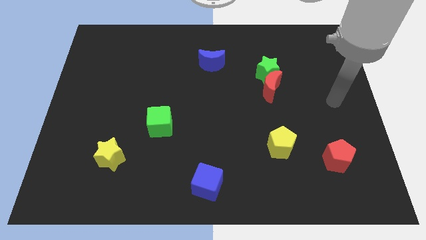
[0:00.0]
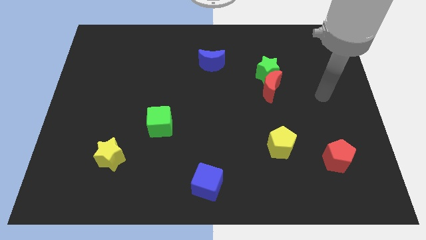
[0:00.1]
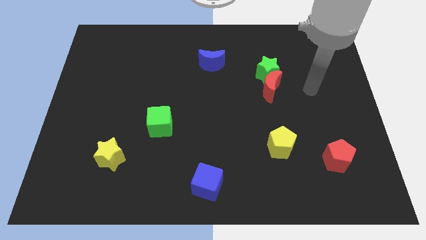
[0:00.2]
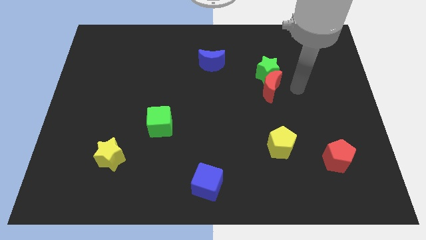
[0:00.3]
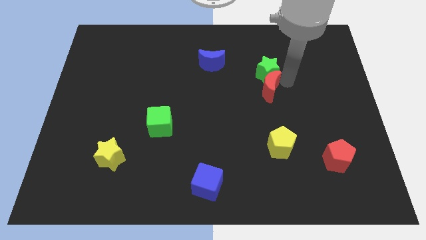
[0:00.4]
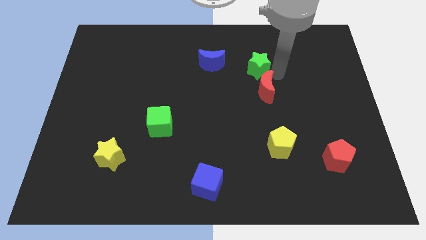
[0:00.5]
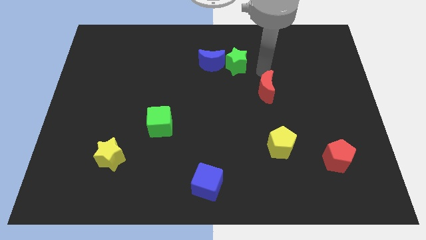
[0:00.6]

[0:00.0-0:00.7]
move the red moon away from the green star

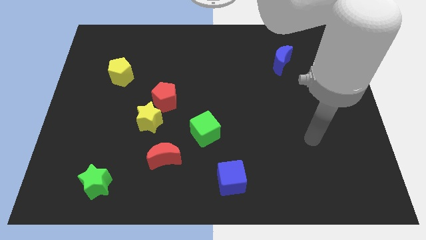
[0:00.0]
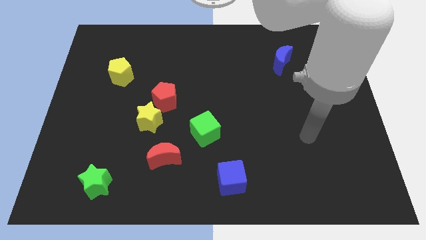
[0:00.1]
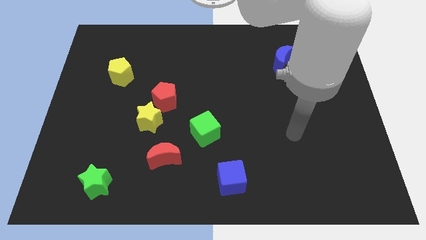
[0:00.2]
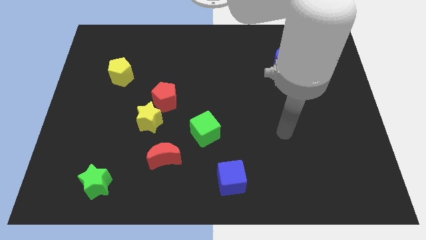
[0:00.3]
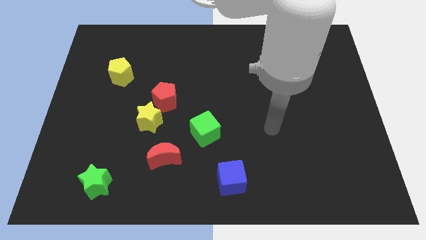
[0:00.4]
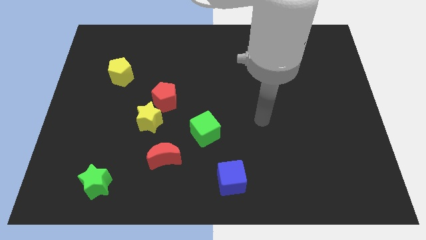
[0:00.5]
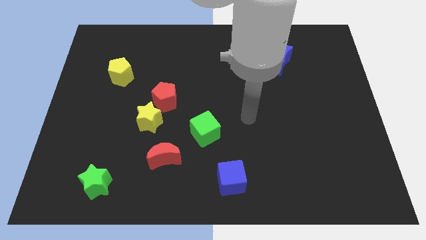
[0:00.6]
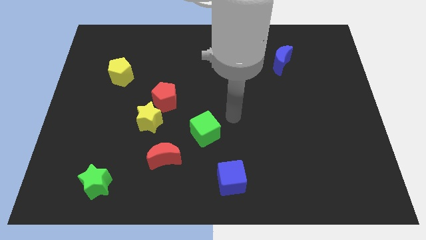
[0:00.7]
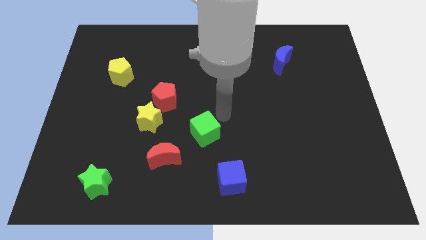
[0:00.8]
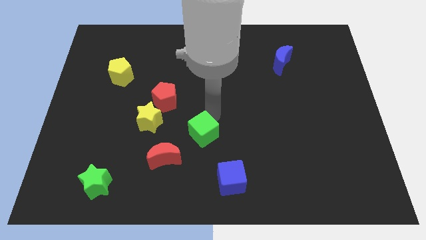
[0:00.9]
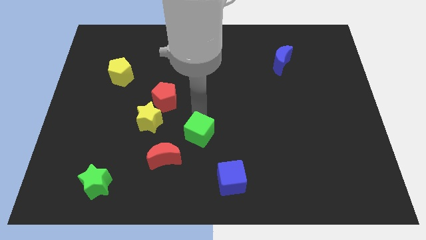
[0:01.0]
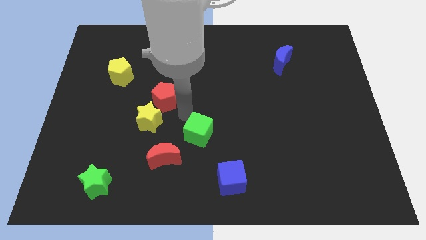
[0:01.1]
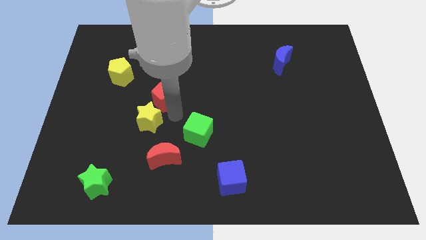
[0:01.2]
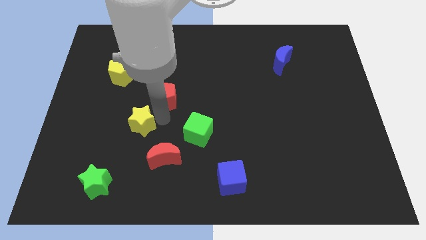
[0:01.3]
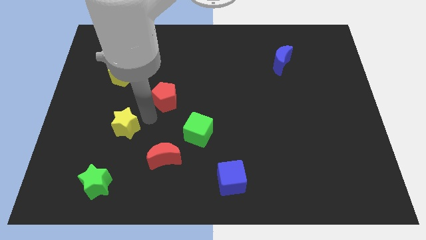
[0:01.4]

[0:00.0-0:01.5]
move the red pentagon away from the yellow star

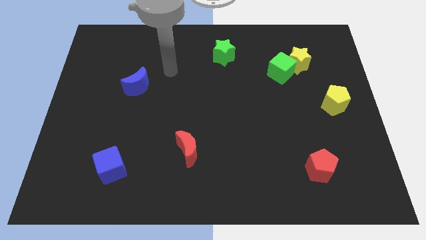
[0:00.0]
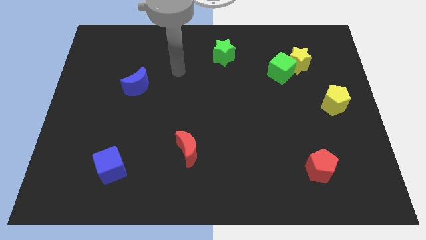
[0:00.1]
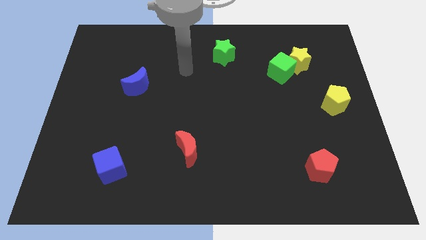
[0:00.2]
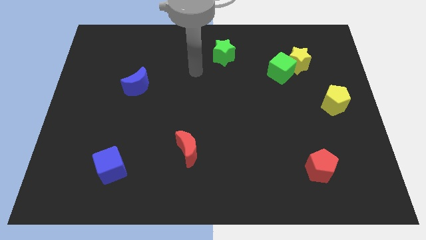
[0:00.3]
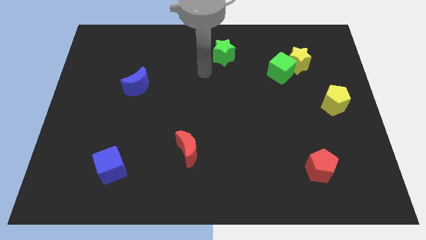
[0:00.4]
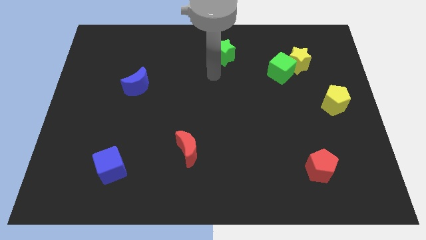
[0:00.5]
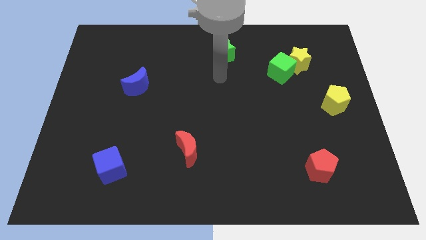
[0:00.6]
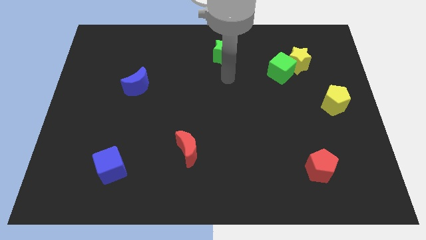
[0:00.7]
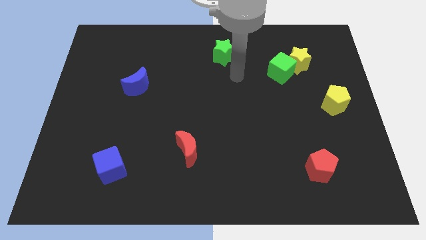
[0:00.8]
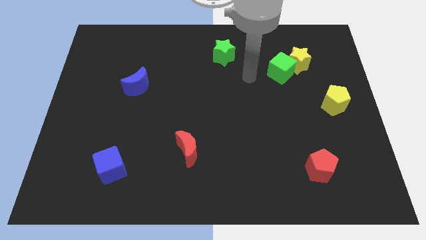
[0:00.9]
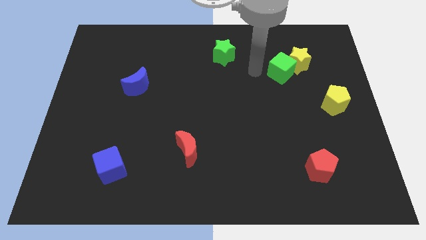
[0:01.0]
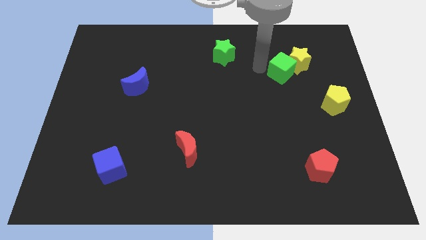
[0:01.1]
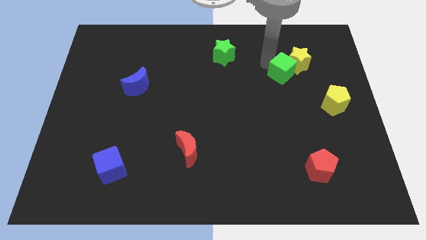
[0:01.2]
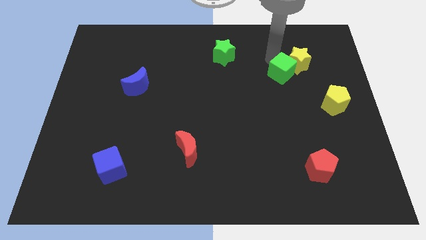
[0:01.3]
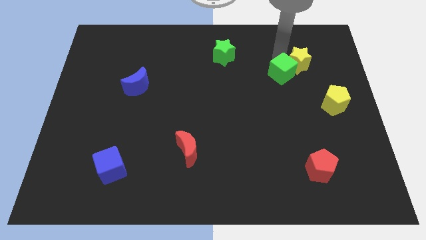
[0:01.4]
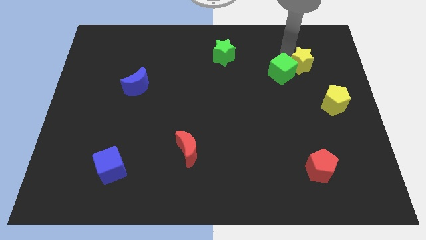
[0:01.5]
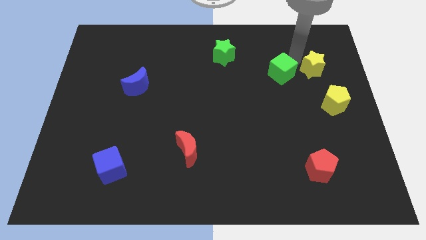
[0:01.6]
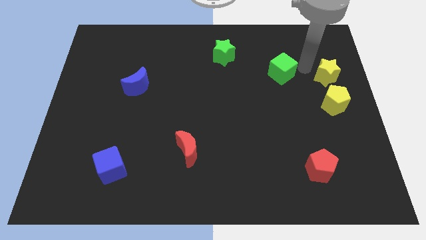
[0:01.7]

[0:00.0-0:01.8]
move the green cube away from the yellow star

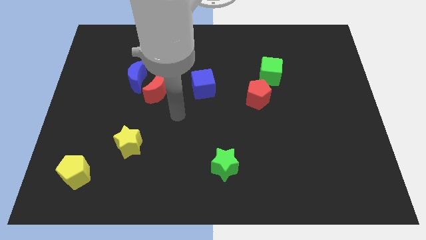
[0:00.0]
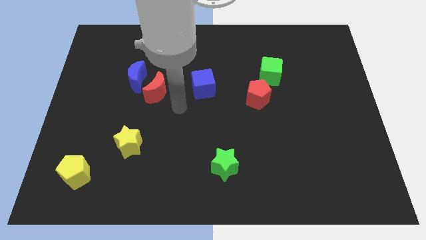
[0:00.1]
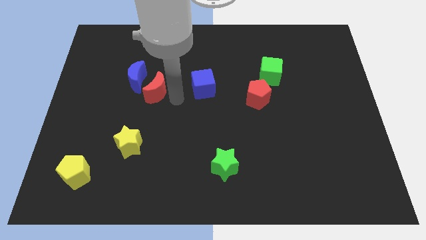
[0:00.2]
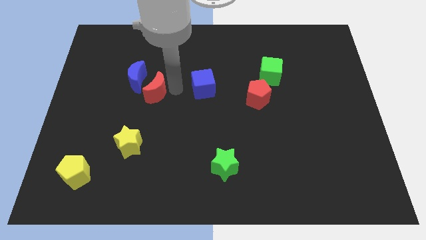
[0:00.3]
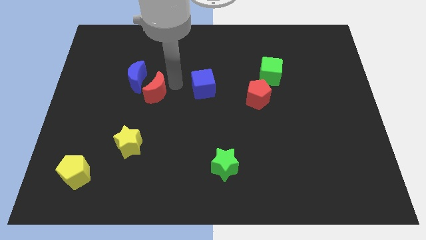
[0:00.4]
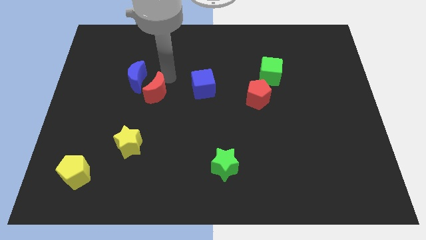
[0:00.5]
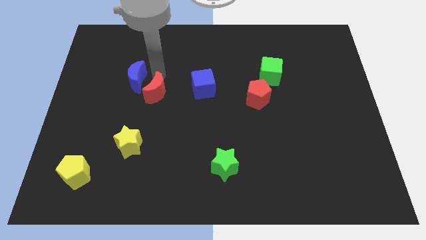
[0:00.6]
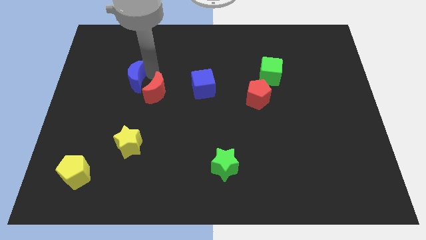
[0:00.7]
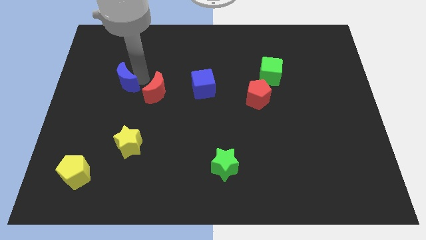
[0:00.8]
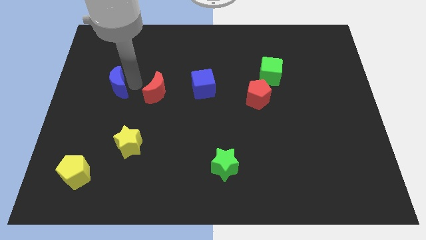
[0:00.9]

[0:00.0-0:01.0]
separate the red moon from the blue moon

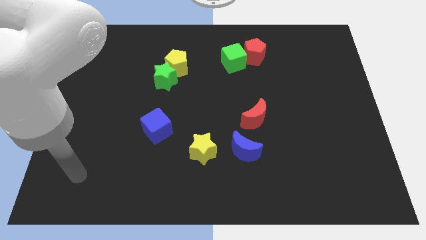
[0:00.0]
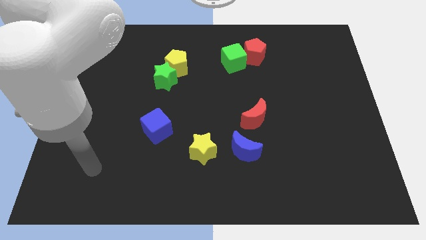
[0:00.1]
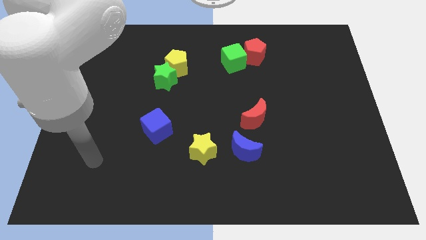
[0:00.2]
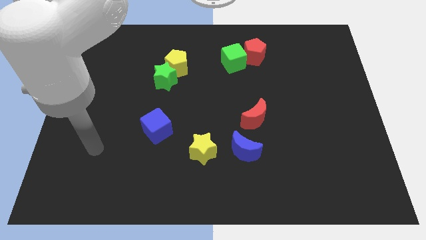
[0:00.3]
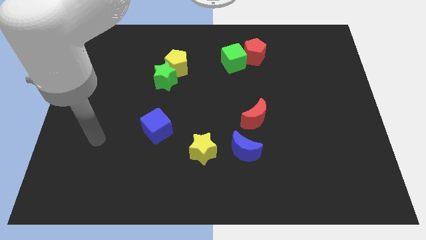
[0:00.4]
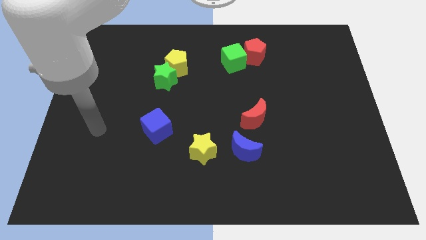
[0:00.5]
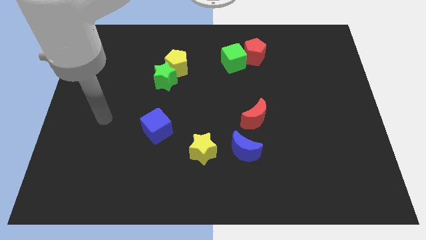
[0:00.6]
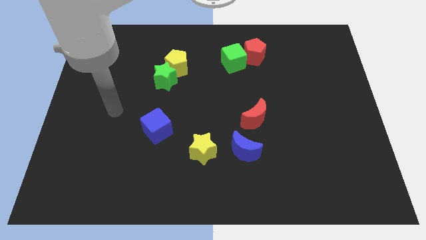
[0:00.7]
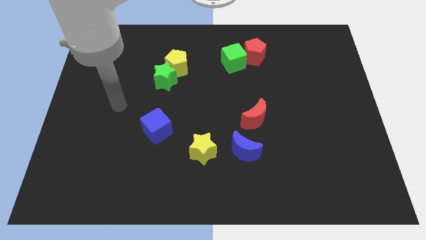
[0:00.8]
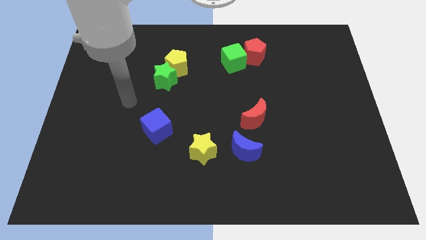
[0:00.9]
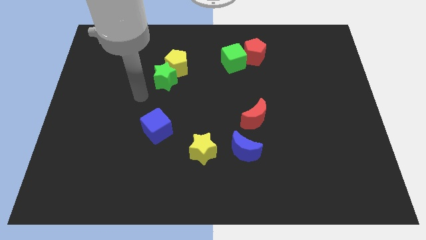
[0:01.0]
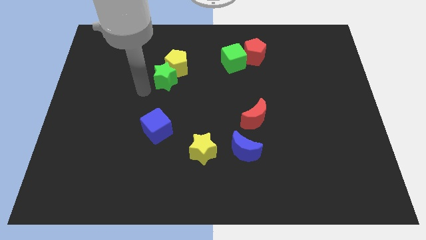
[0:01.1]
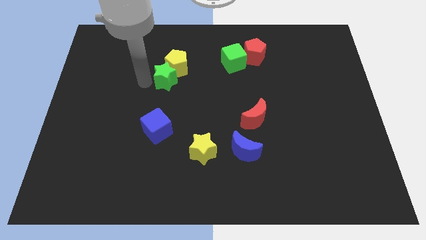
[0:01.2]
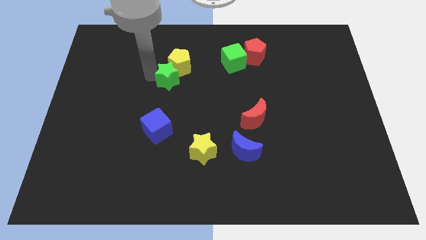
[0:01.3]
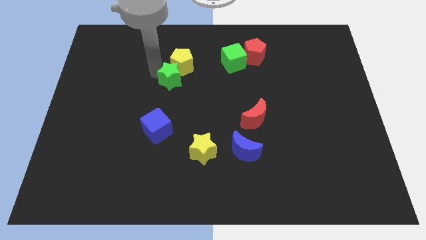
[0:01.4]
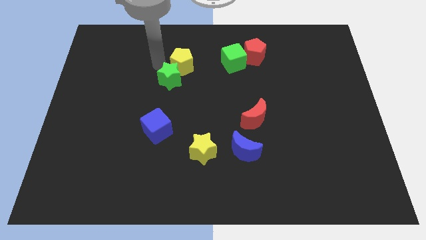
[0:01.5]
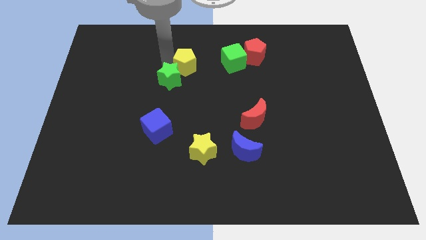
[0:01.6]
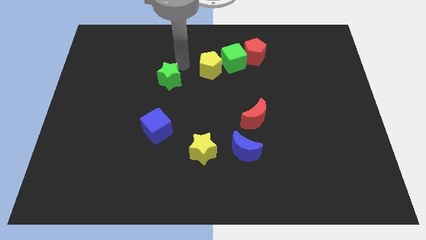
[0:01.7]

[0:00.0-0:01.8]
pull the green star apart from the yellow pentagon

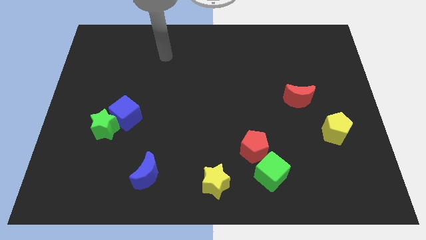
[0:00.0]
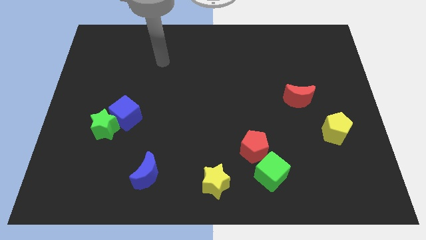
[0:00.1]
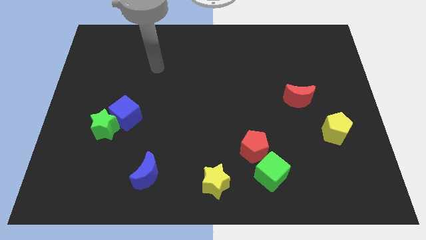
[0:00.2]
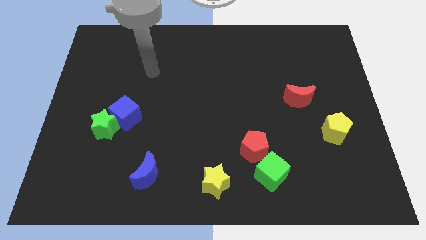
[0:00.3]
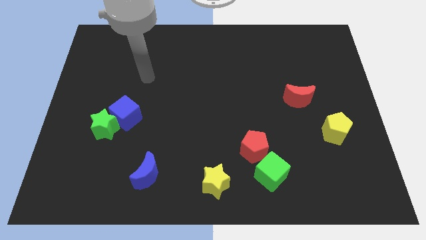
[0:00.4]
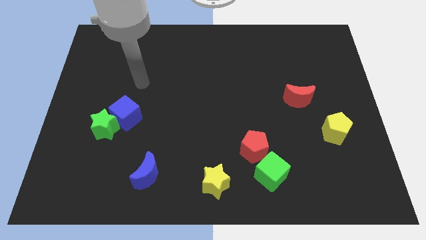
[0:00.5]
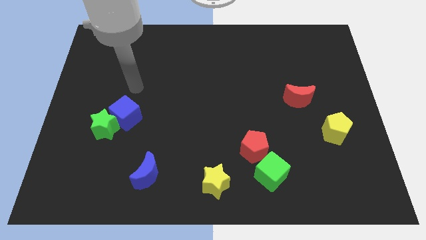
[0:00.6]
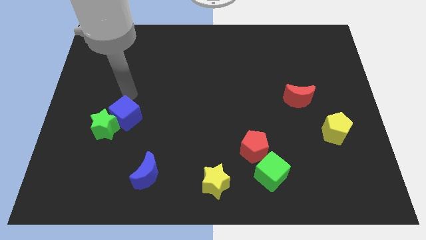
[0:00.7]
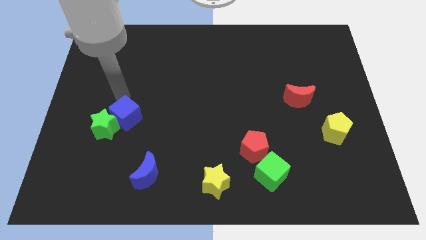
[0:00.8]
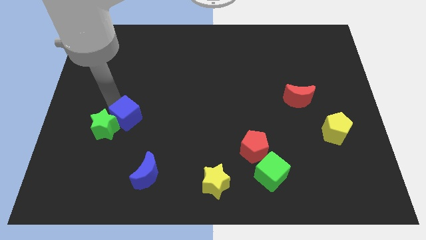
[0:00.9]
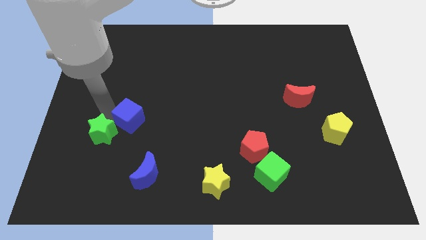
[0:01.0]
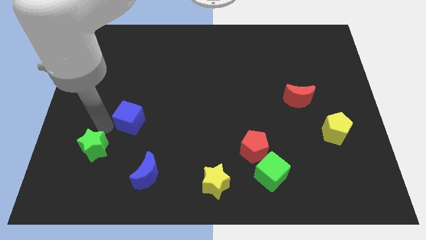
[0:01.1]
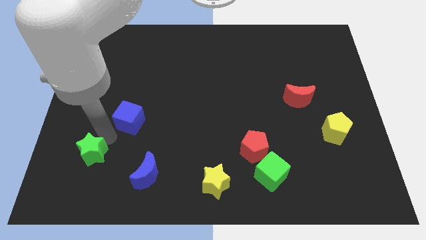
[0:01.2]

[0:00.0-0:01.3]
move the blue cube away from the green star

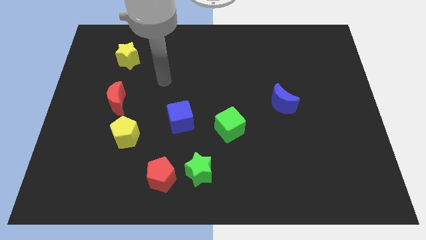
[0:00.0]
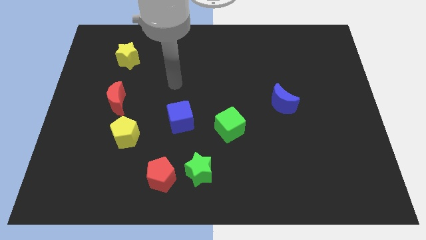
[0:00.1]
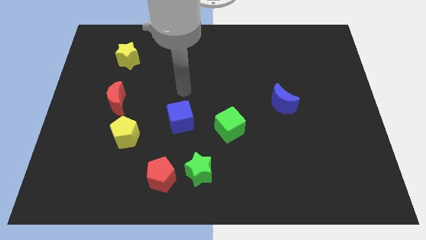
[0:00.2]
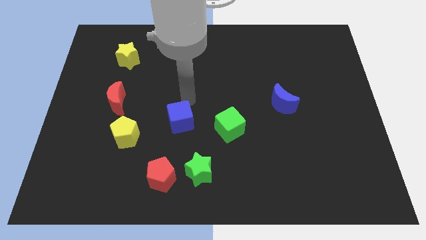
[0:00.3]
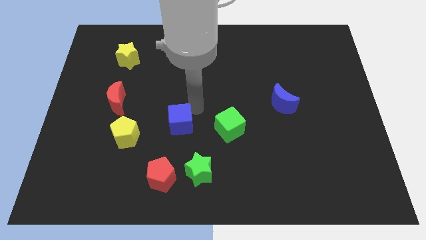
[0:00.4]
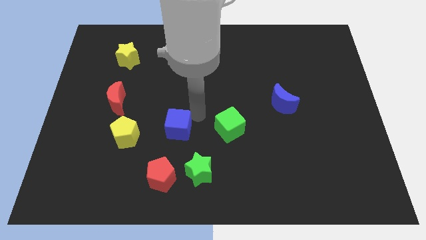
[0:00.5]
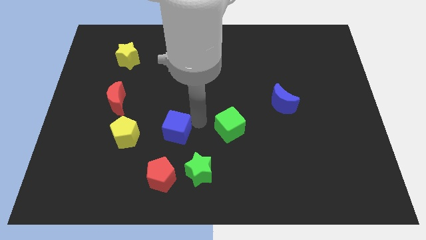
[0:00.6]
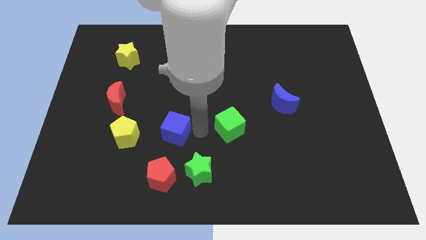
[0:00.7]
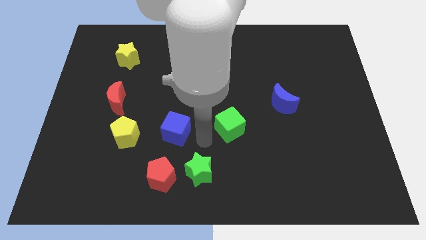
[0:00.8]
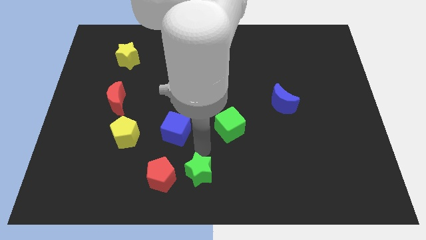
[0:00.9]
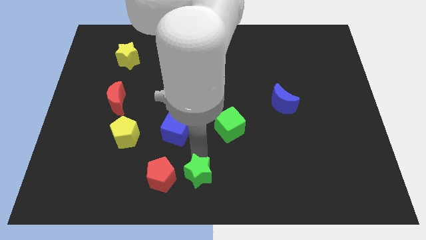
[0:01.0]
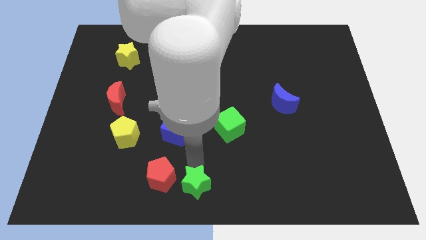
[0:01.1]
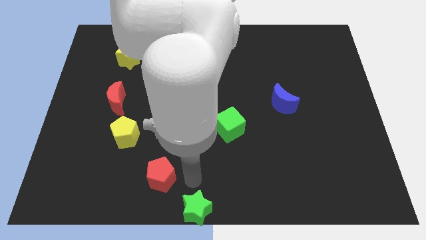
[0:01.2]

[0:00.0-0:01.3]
move the red pentagon away from the green star
